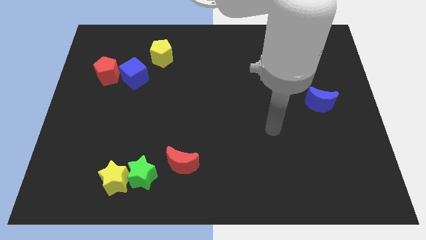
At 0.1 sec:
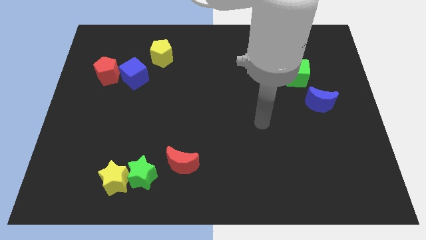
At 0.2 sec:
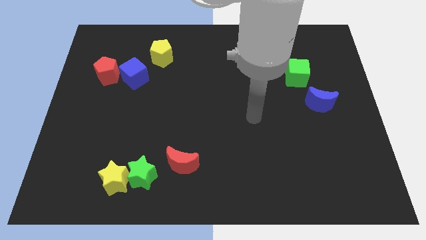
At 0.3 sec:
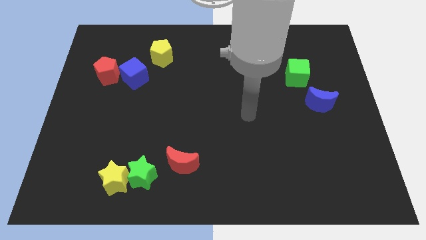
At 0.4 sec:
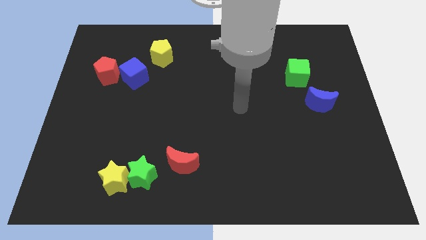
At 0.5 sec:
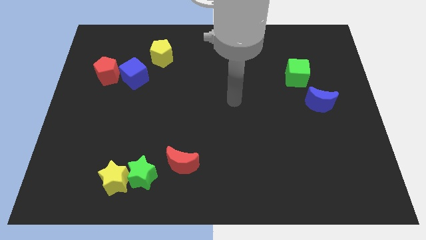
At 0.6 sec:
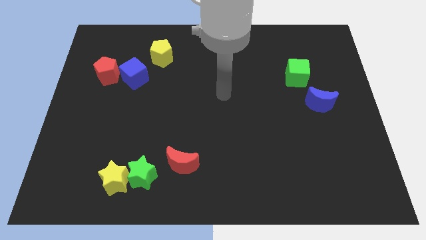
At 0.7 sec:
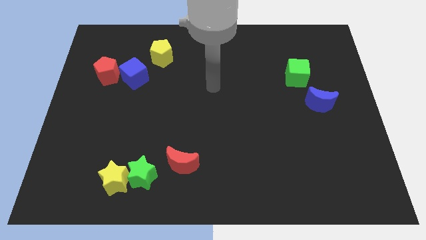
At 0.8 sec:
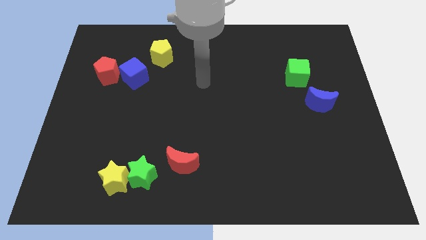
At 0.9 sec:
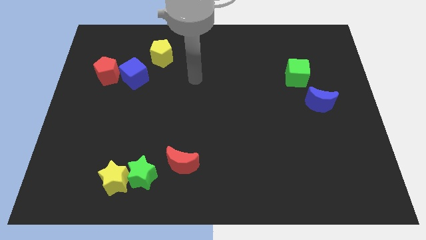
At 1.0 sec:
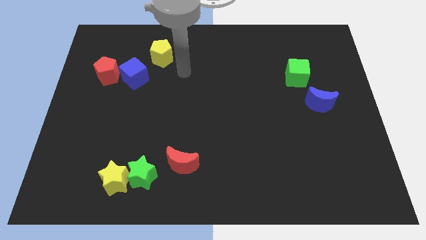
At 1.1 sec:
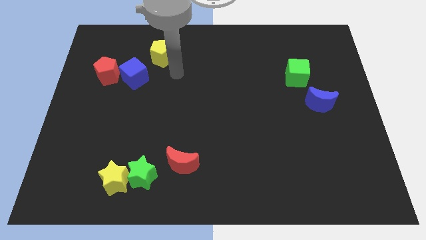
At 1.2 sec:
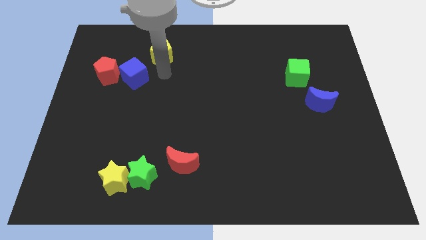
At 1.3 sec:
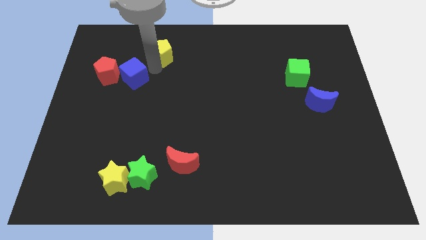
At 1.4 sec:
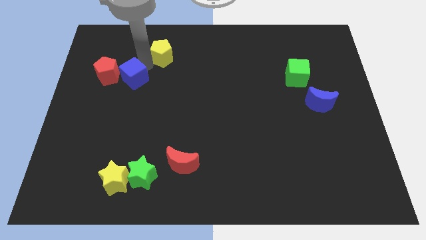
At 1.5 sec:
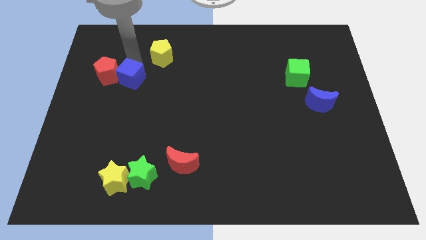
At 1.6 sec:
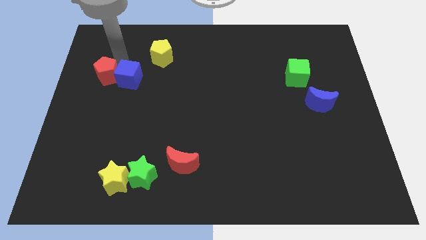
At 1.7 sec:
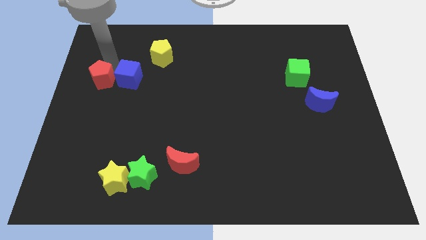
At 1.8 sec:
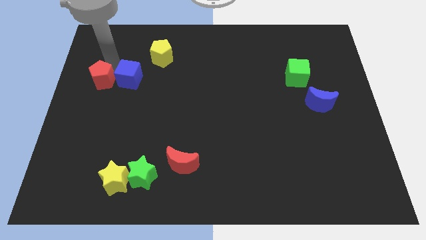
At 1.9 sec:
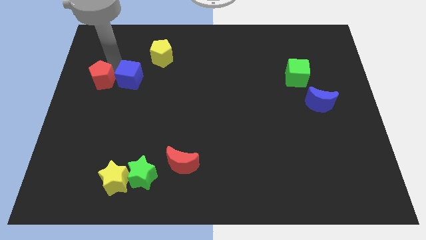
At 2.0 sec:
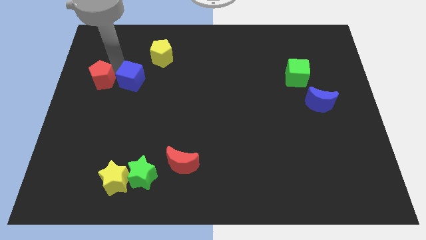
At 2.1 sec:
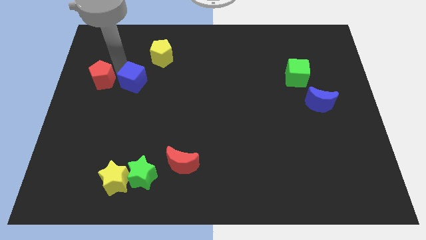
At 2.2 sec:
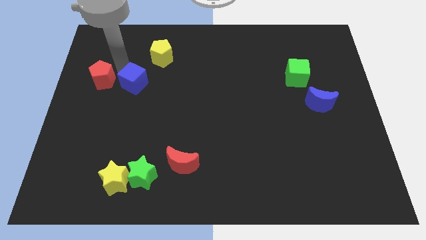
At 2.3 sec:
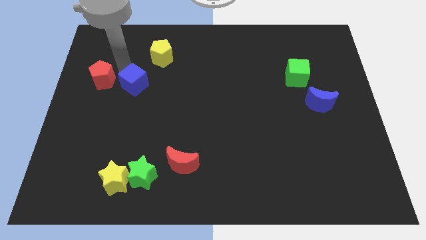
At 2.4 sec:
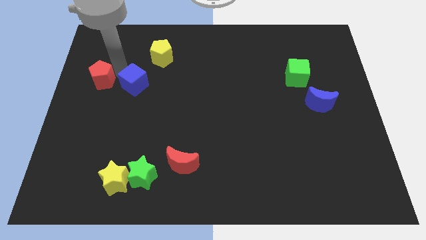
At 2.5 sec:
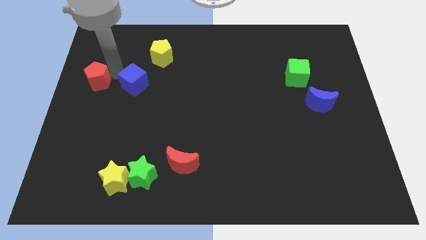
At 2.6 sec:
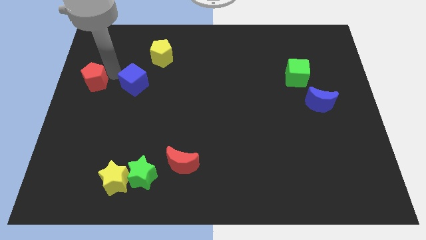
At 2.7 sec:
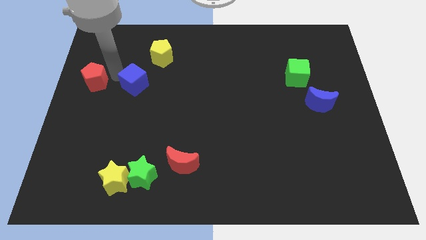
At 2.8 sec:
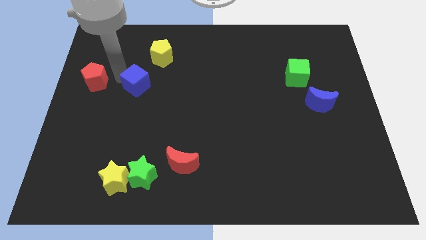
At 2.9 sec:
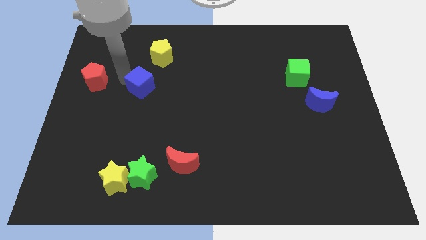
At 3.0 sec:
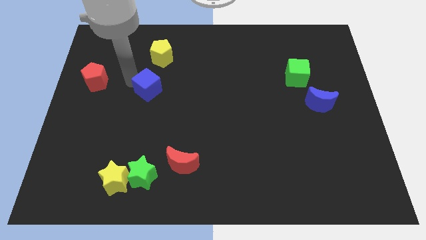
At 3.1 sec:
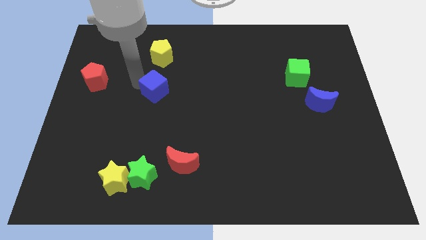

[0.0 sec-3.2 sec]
push the blue cube down and right diagonally a little bit

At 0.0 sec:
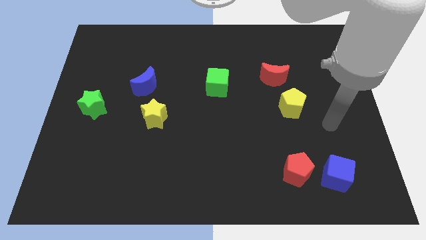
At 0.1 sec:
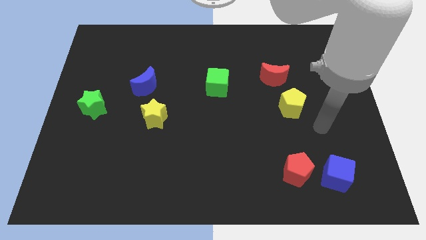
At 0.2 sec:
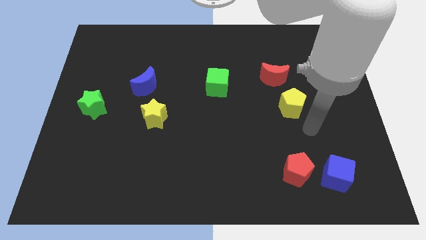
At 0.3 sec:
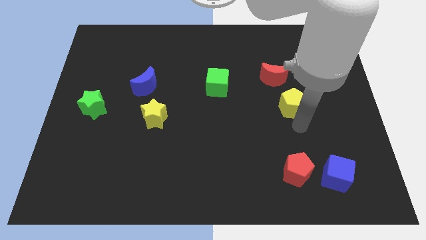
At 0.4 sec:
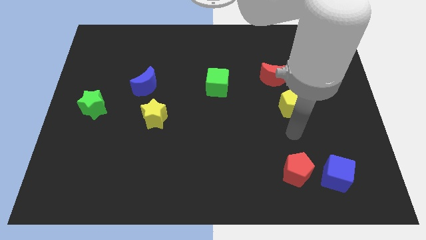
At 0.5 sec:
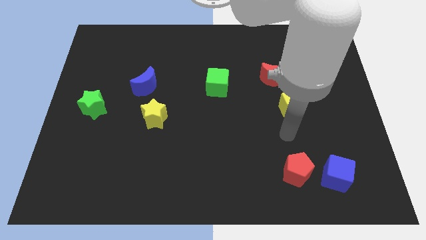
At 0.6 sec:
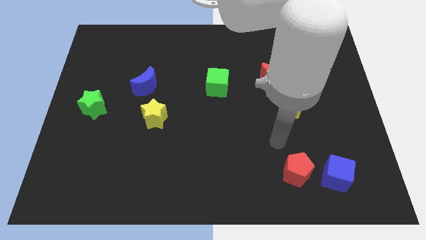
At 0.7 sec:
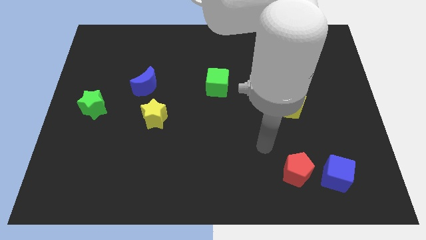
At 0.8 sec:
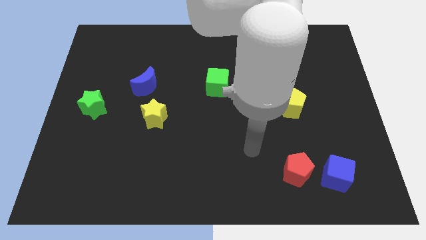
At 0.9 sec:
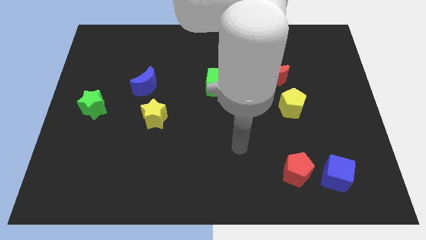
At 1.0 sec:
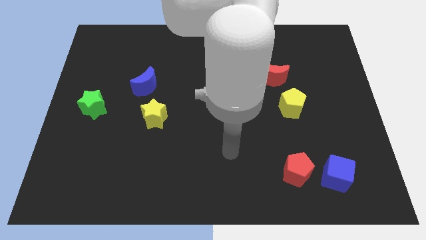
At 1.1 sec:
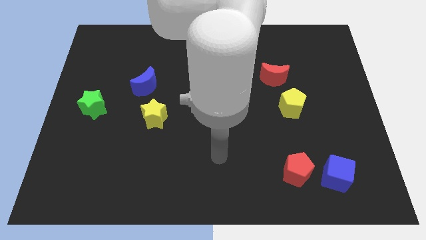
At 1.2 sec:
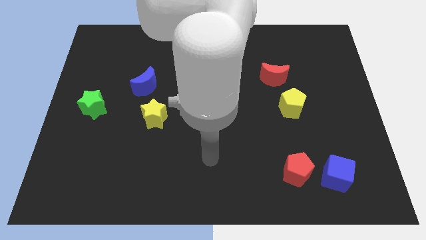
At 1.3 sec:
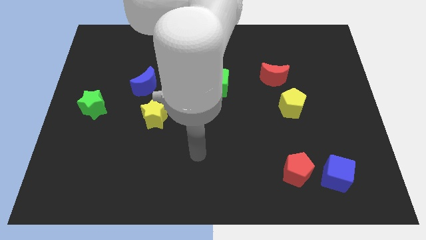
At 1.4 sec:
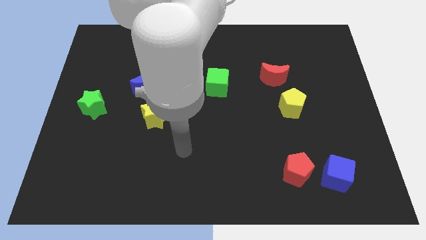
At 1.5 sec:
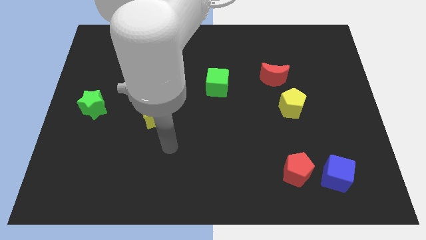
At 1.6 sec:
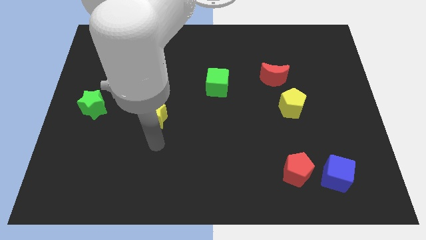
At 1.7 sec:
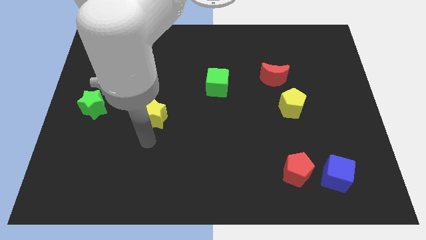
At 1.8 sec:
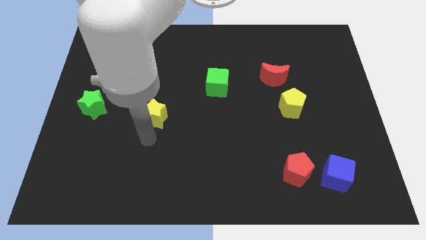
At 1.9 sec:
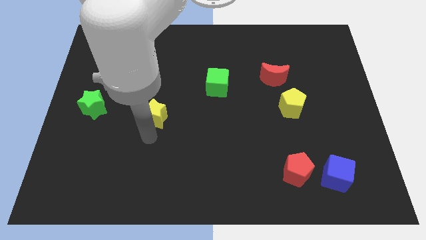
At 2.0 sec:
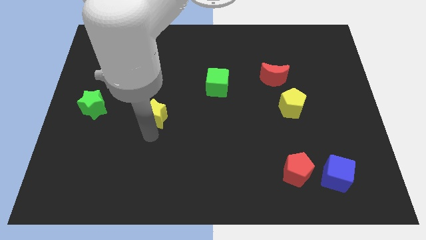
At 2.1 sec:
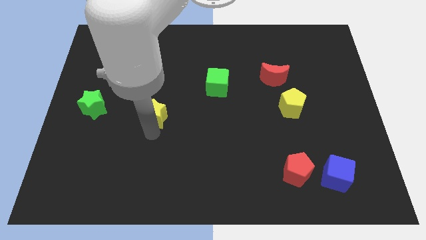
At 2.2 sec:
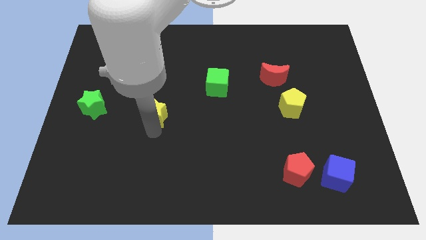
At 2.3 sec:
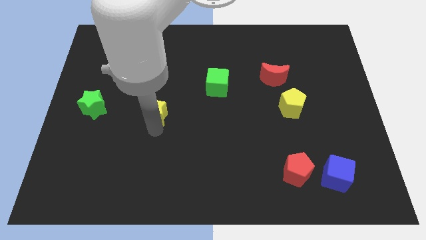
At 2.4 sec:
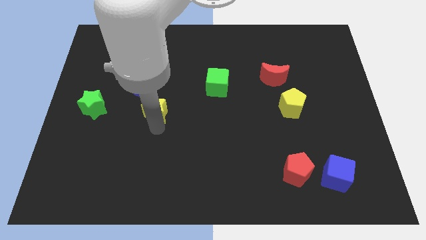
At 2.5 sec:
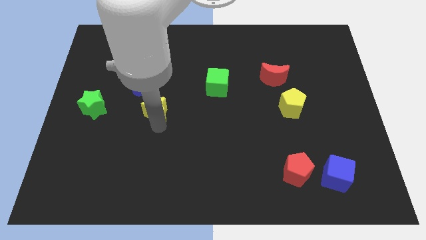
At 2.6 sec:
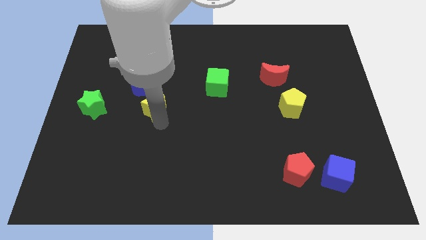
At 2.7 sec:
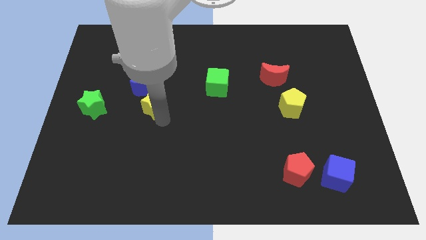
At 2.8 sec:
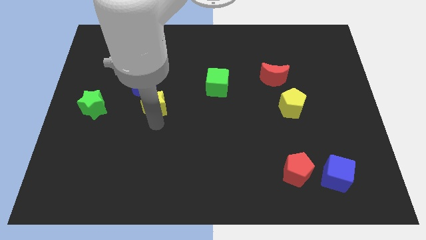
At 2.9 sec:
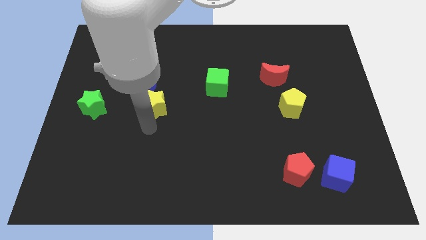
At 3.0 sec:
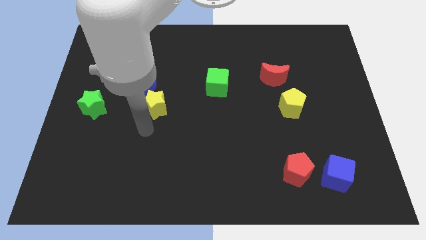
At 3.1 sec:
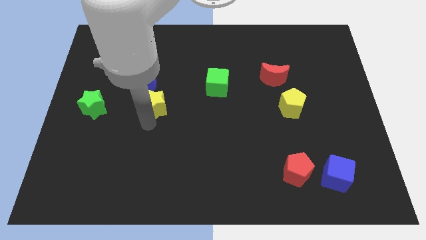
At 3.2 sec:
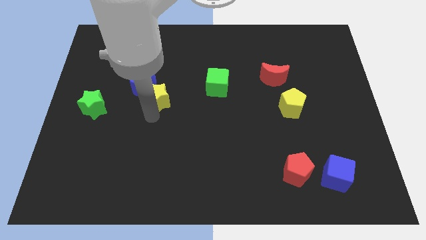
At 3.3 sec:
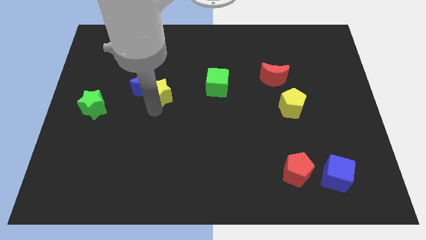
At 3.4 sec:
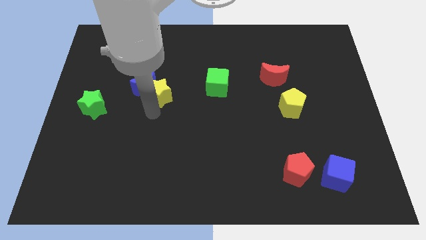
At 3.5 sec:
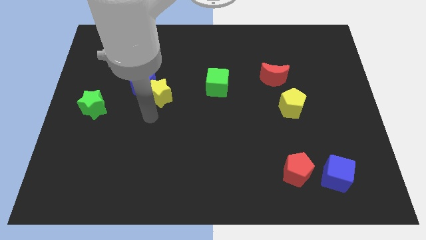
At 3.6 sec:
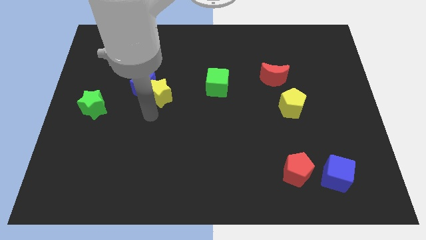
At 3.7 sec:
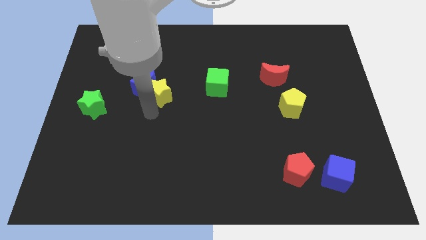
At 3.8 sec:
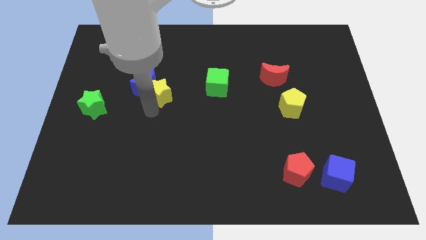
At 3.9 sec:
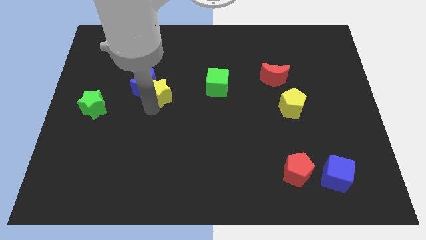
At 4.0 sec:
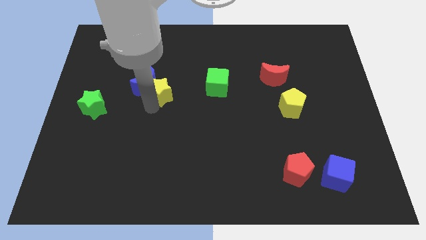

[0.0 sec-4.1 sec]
slightly push the yellow star upwards

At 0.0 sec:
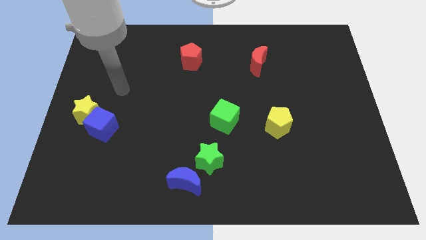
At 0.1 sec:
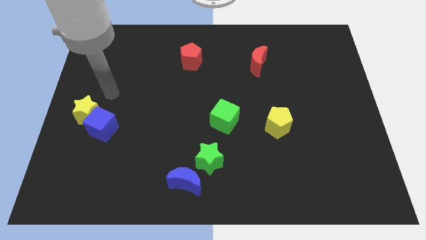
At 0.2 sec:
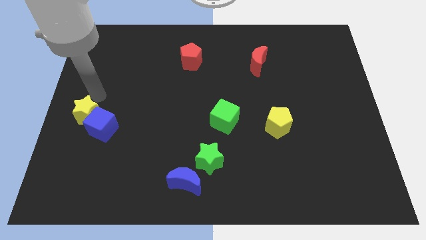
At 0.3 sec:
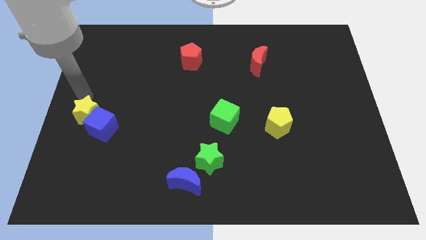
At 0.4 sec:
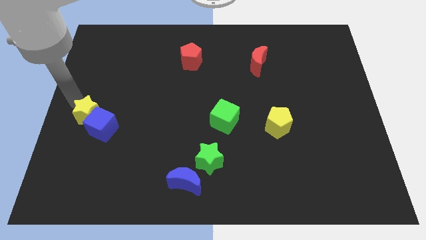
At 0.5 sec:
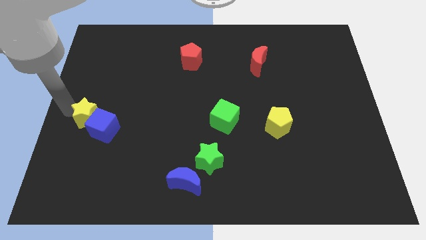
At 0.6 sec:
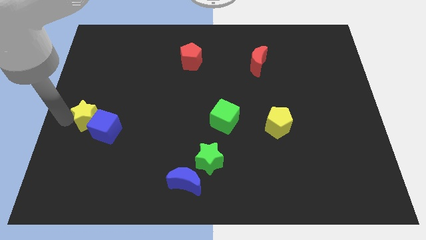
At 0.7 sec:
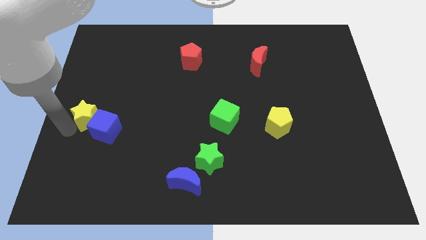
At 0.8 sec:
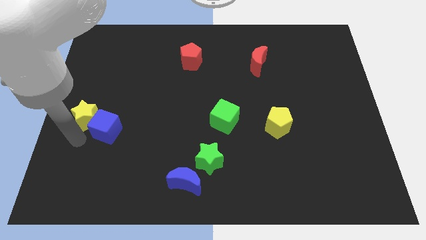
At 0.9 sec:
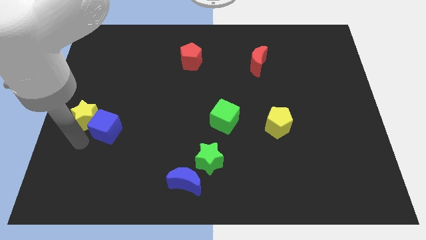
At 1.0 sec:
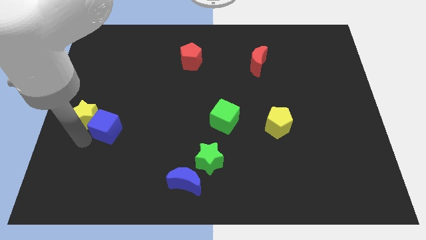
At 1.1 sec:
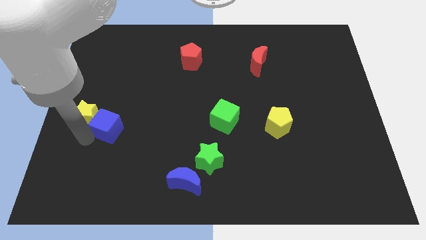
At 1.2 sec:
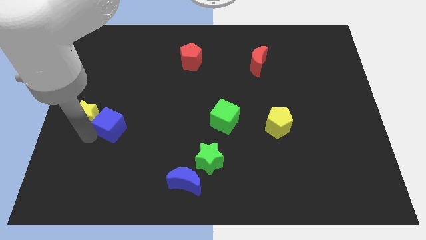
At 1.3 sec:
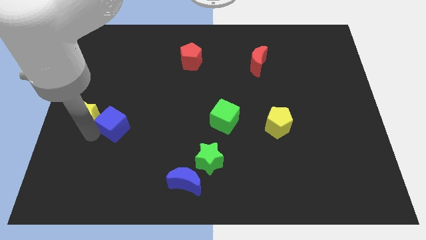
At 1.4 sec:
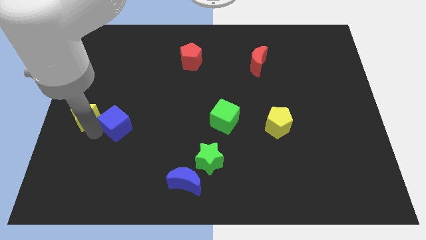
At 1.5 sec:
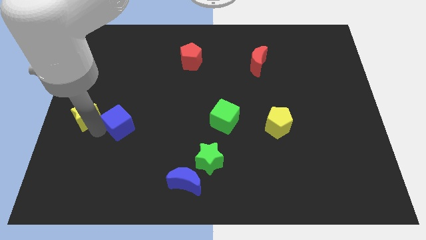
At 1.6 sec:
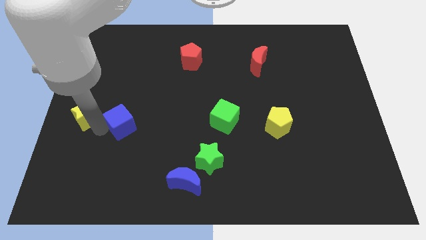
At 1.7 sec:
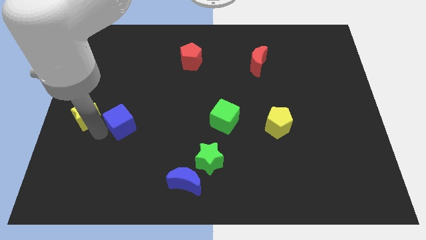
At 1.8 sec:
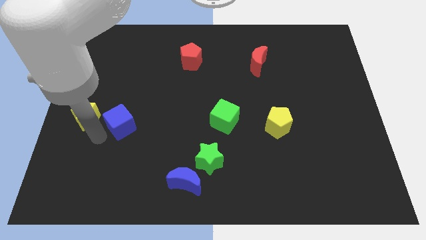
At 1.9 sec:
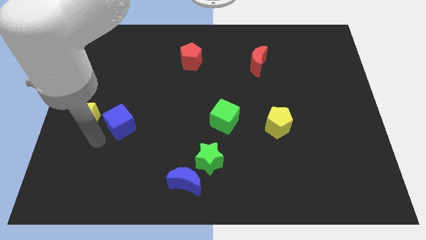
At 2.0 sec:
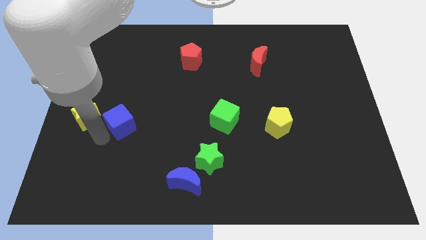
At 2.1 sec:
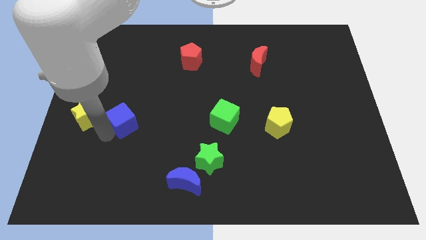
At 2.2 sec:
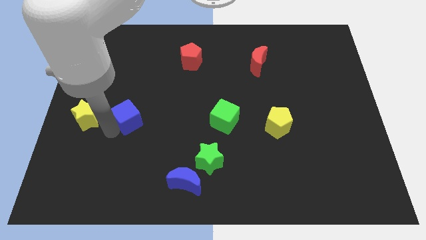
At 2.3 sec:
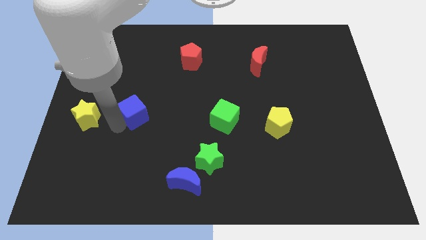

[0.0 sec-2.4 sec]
slide the blue cube somewhat upwards and then right
